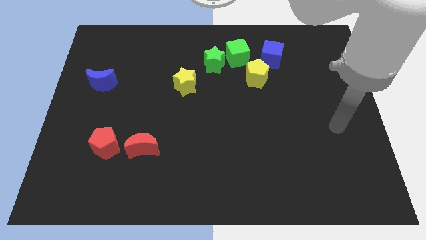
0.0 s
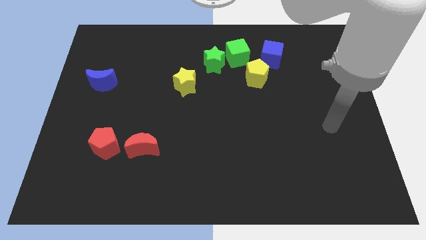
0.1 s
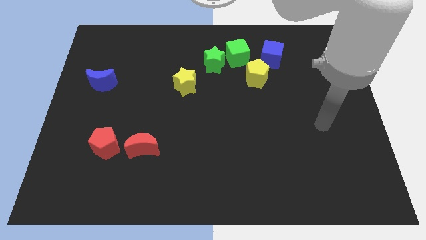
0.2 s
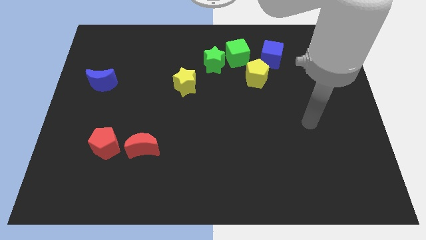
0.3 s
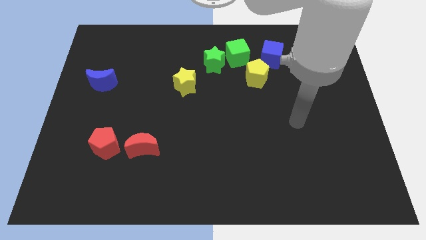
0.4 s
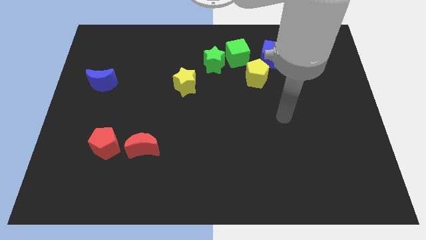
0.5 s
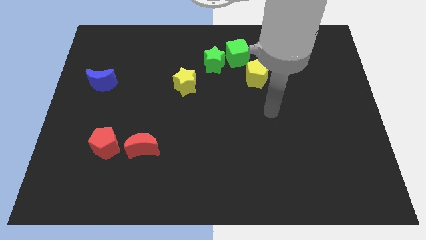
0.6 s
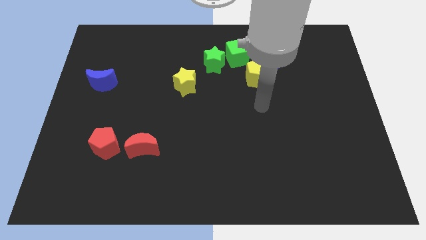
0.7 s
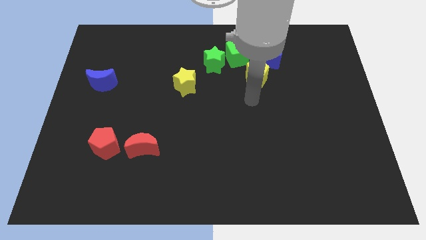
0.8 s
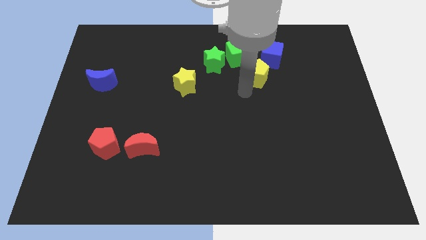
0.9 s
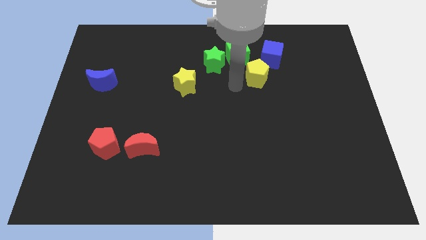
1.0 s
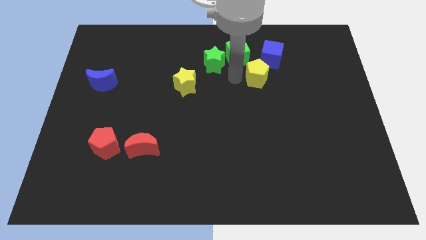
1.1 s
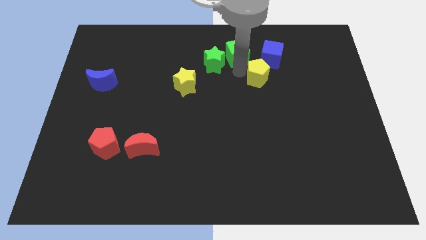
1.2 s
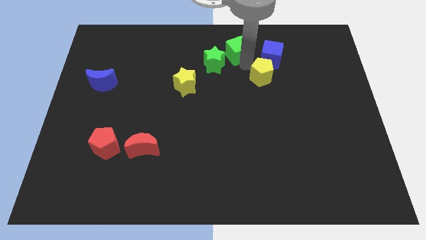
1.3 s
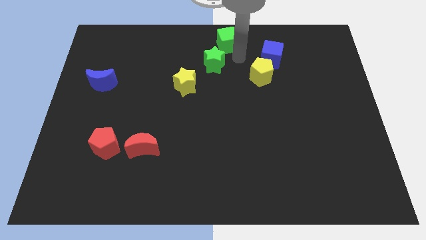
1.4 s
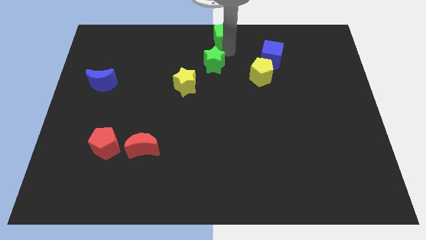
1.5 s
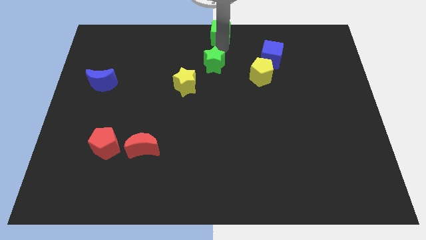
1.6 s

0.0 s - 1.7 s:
separate the green star from the green cube

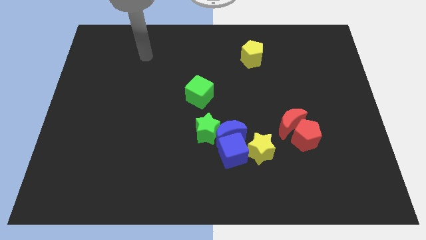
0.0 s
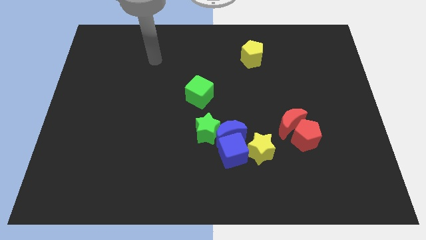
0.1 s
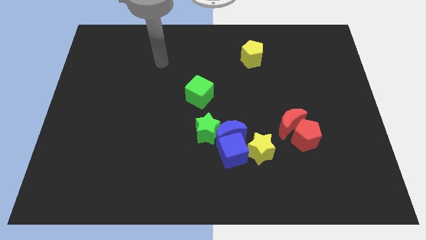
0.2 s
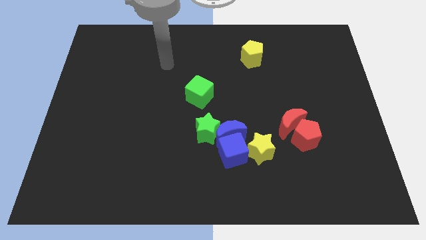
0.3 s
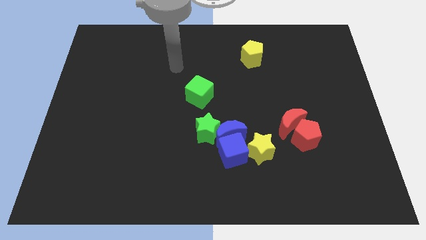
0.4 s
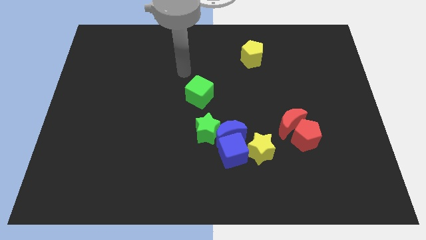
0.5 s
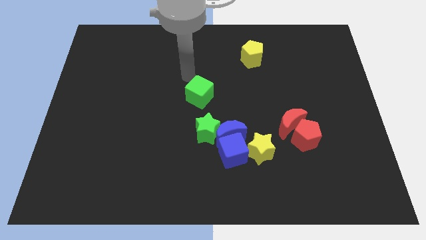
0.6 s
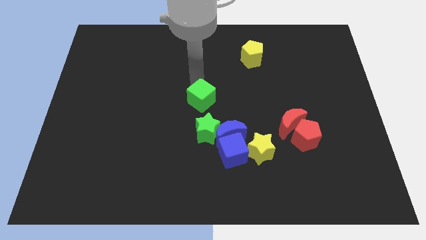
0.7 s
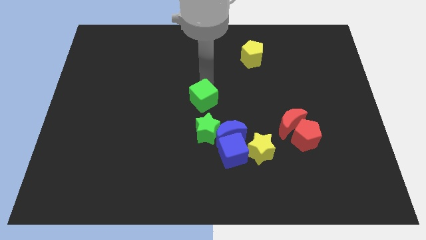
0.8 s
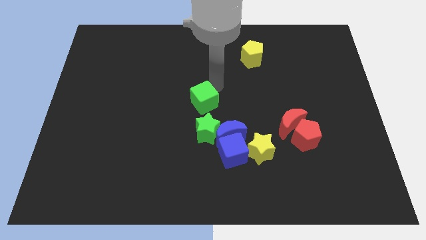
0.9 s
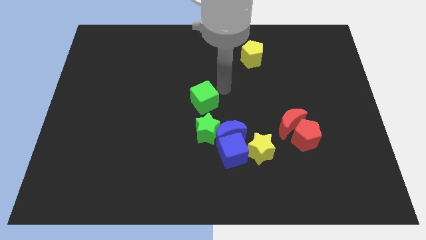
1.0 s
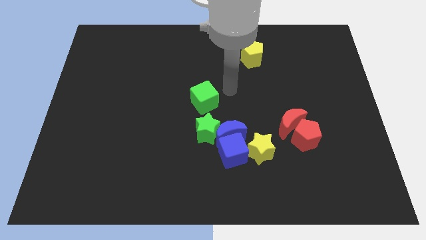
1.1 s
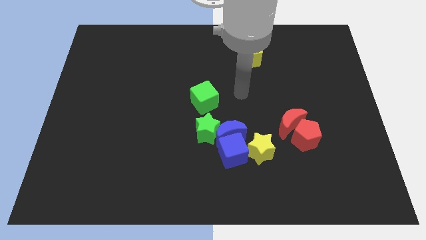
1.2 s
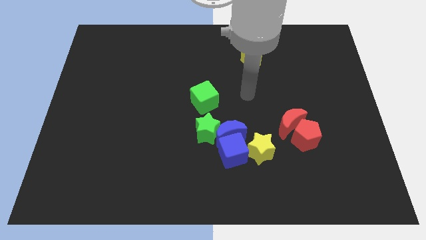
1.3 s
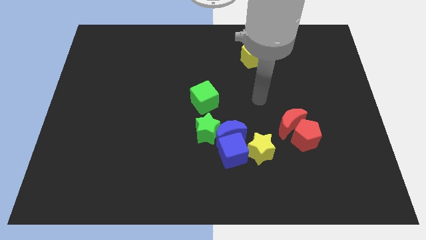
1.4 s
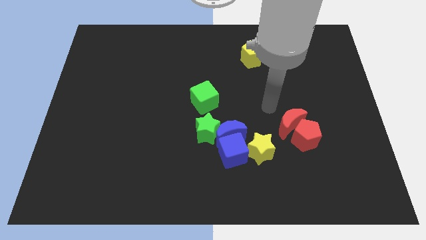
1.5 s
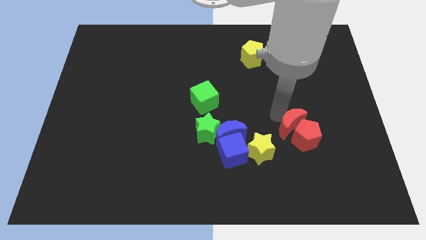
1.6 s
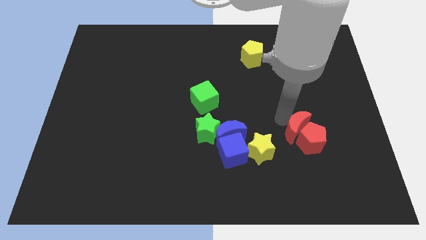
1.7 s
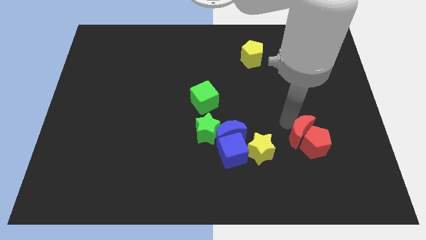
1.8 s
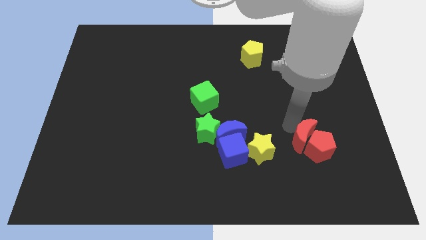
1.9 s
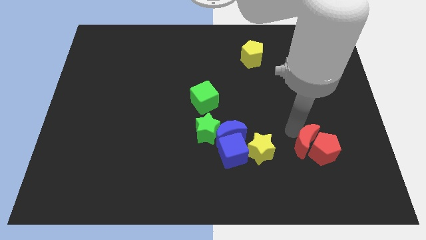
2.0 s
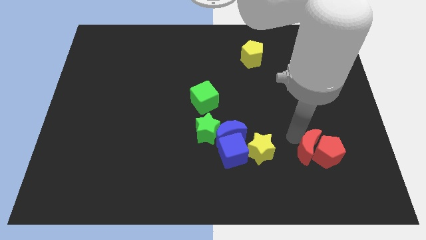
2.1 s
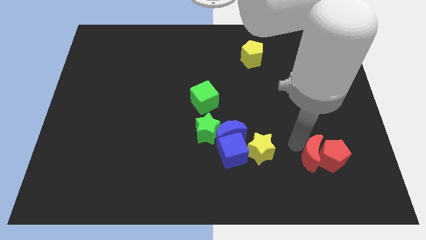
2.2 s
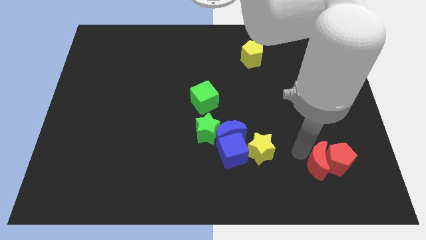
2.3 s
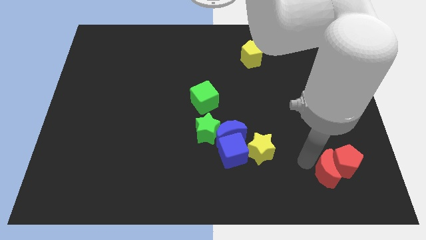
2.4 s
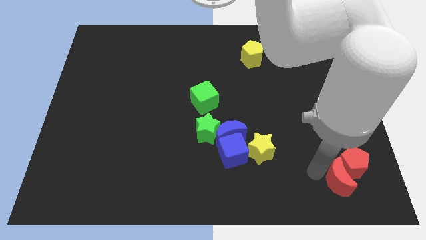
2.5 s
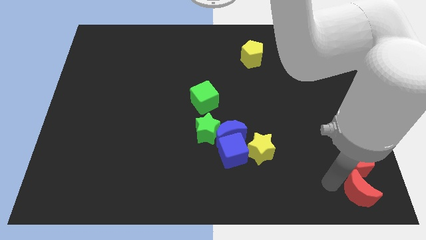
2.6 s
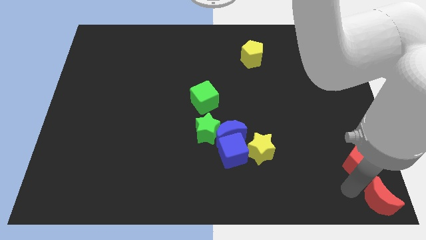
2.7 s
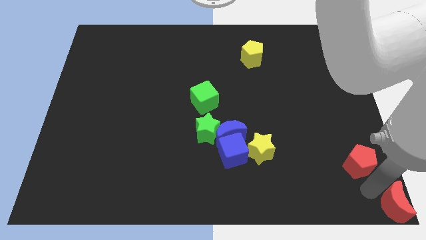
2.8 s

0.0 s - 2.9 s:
pull the red pentagon apart from the red moon

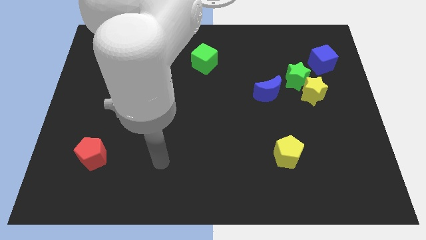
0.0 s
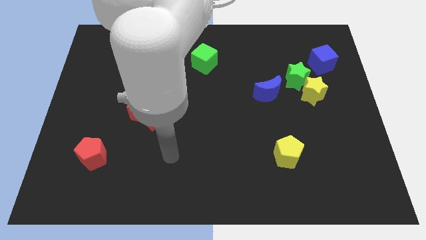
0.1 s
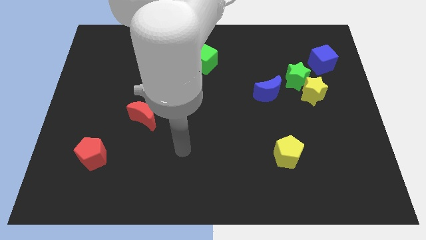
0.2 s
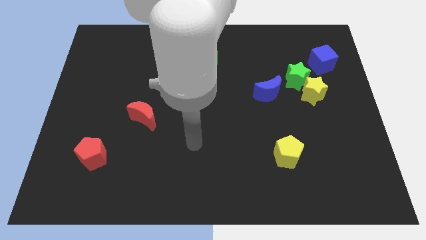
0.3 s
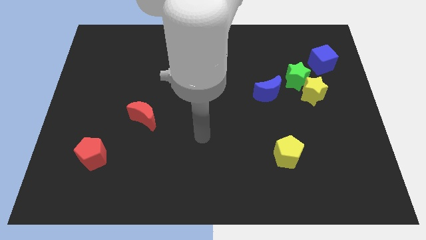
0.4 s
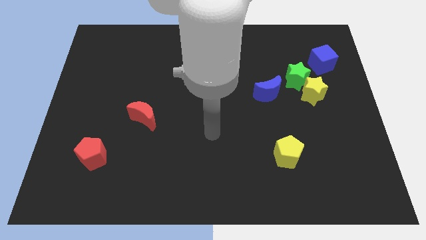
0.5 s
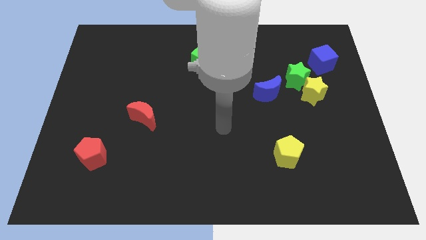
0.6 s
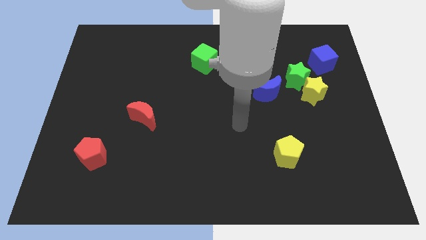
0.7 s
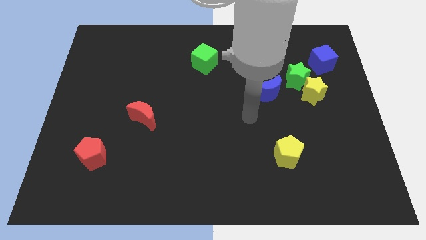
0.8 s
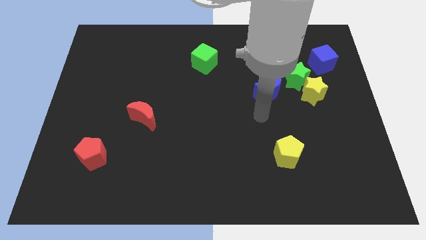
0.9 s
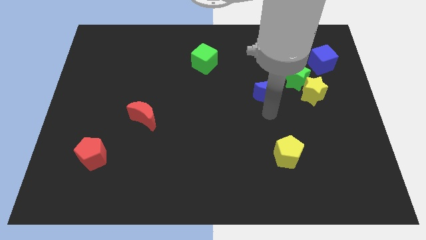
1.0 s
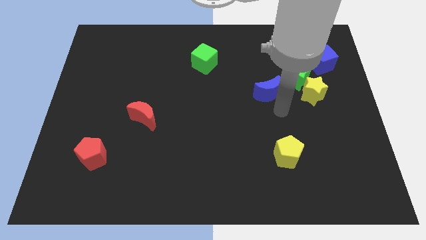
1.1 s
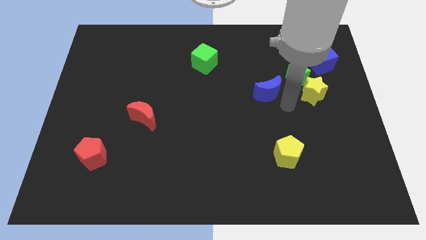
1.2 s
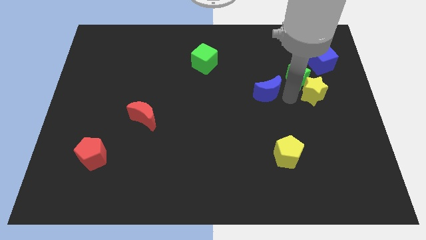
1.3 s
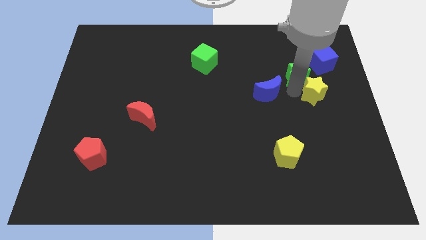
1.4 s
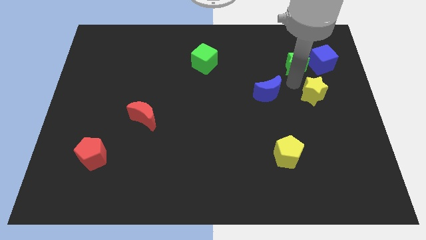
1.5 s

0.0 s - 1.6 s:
separate the yellow star from the green star

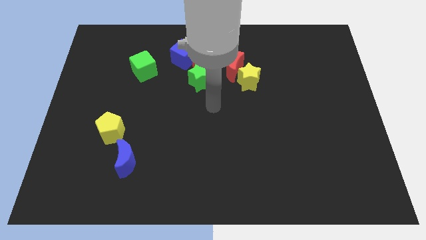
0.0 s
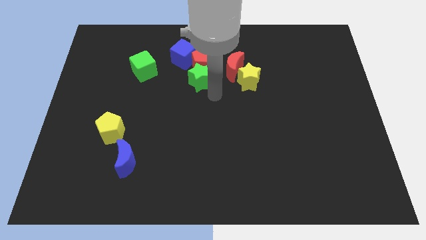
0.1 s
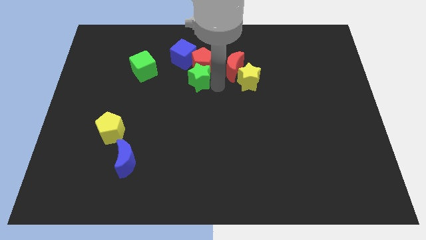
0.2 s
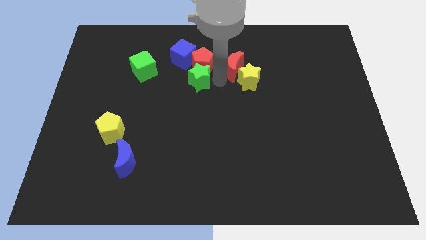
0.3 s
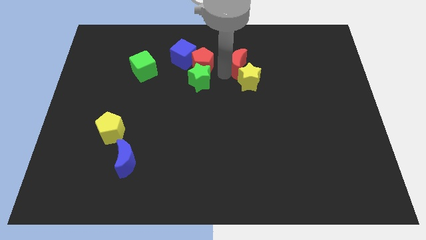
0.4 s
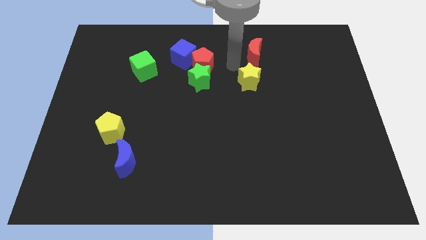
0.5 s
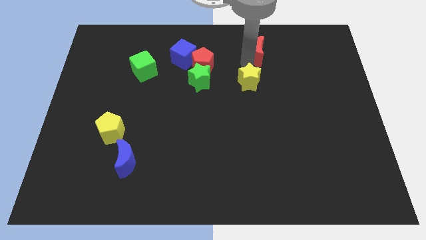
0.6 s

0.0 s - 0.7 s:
move the yellow star away from the red moon

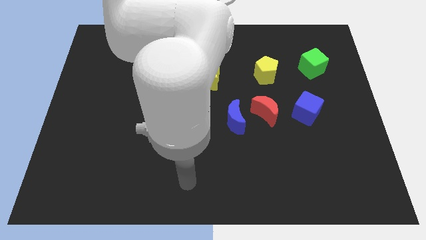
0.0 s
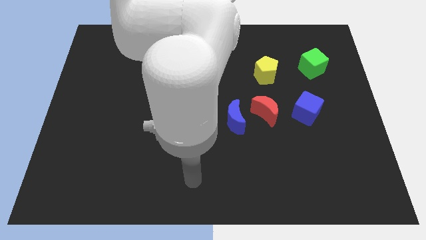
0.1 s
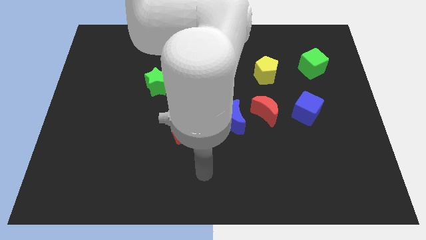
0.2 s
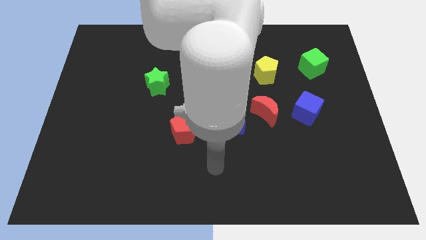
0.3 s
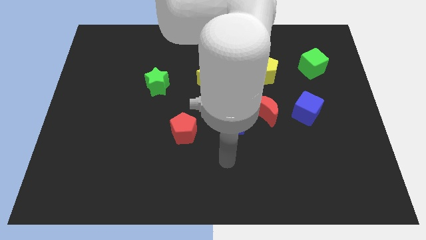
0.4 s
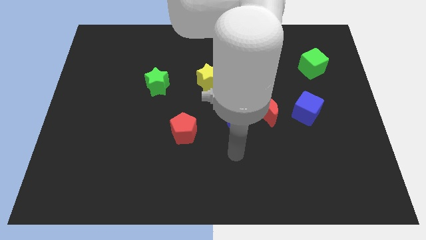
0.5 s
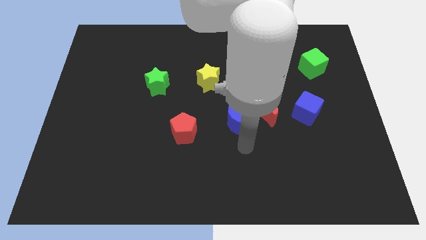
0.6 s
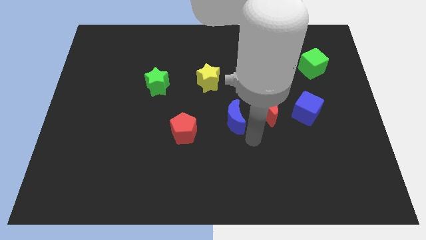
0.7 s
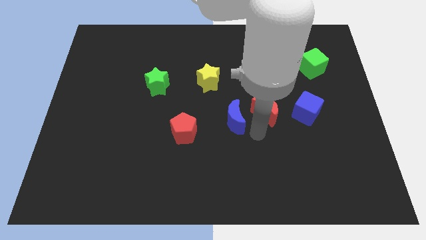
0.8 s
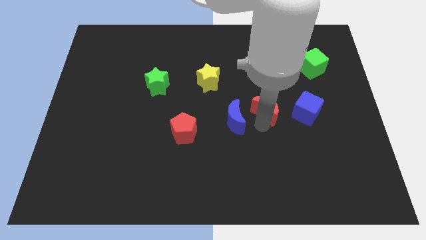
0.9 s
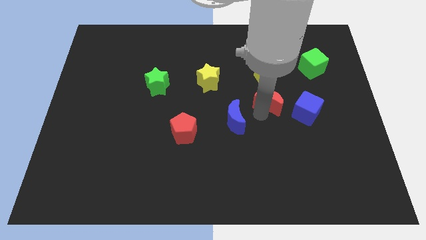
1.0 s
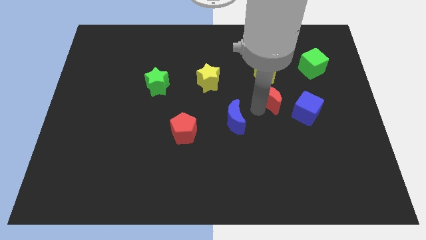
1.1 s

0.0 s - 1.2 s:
pull the blue moon apart from the red moon

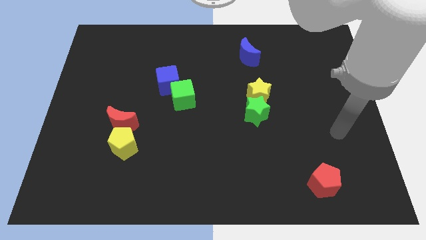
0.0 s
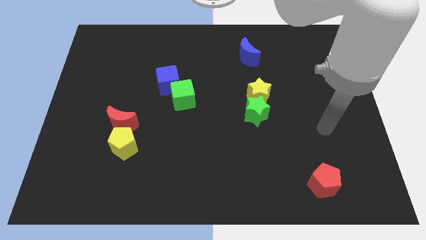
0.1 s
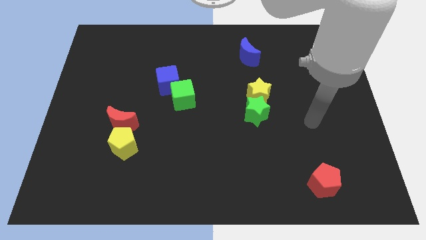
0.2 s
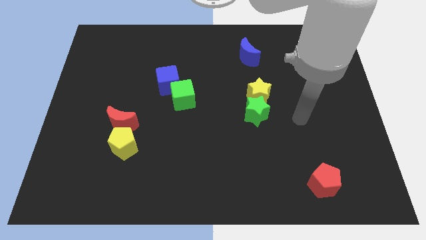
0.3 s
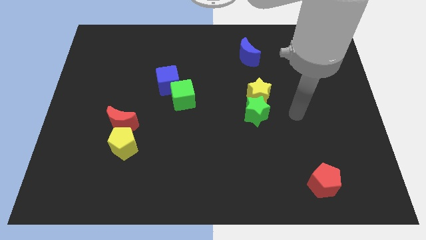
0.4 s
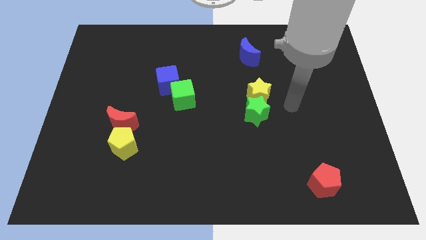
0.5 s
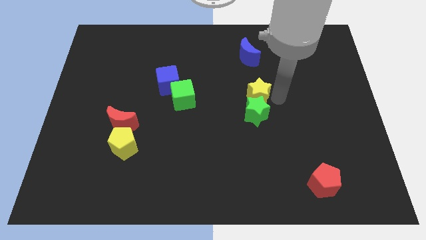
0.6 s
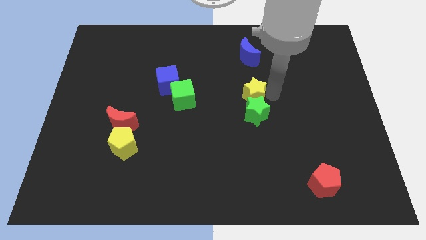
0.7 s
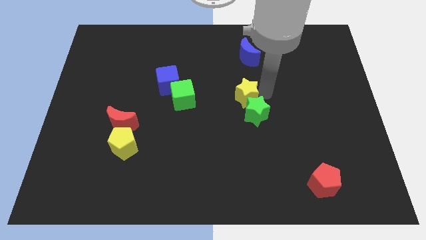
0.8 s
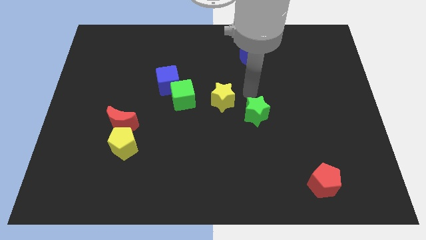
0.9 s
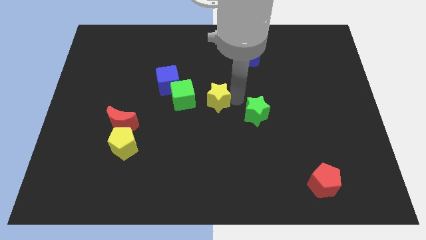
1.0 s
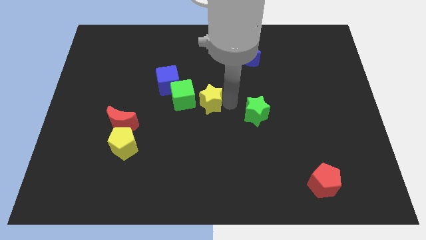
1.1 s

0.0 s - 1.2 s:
pull the green star apart from the yellow star
